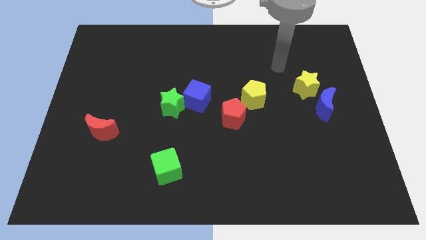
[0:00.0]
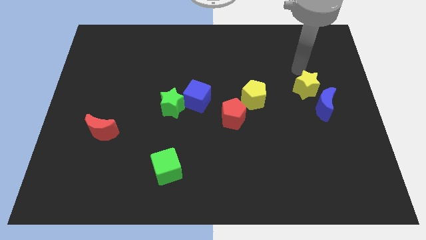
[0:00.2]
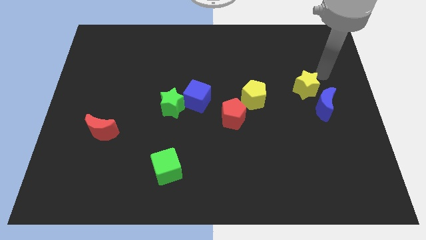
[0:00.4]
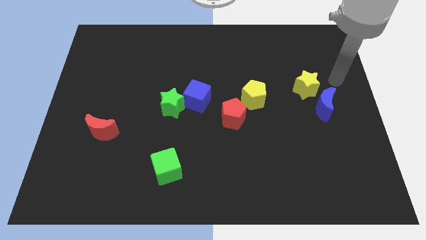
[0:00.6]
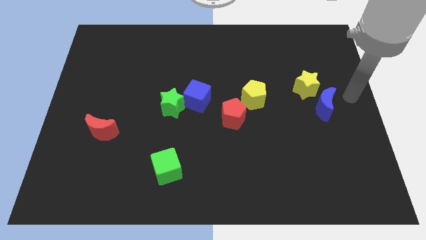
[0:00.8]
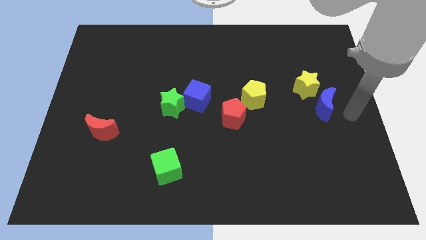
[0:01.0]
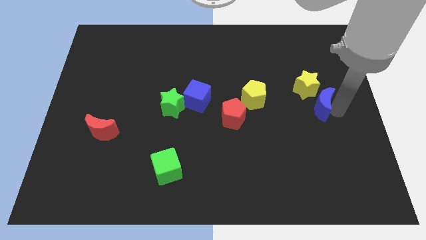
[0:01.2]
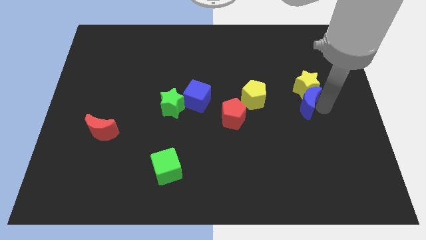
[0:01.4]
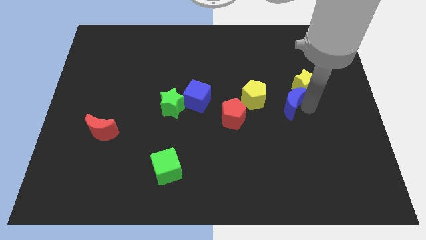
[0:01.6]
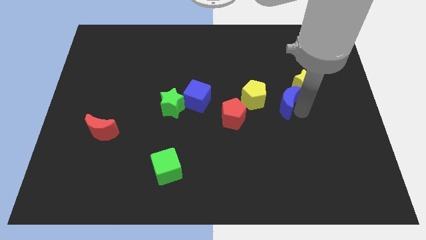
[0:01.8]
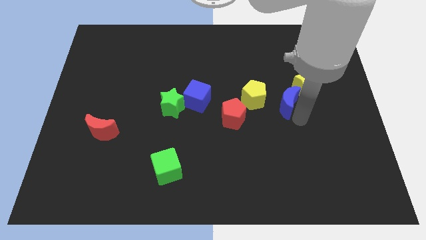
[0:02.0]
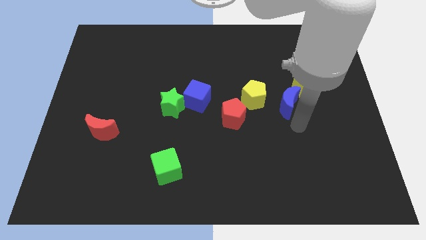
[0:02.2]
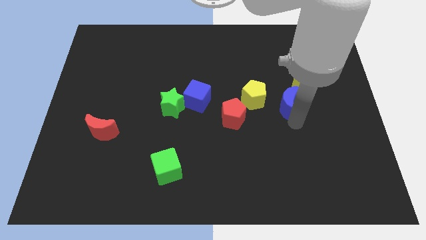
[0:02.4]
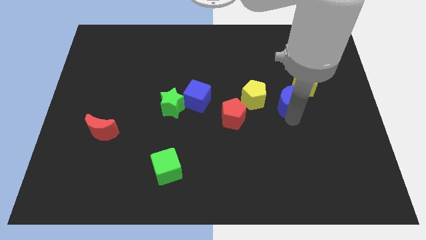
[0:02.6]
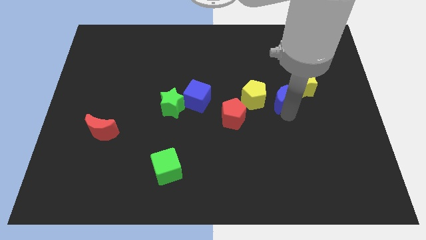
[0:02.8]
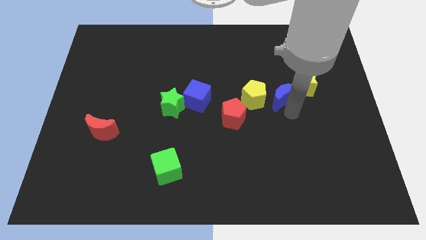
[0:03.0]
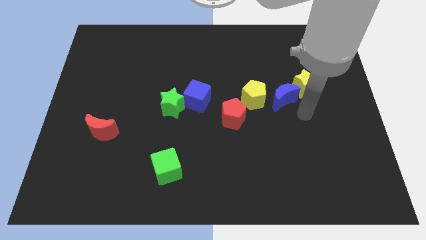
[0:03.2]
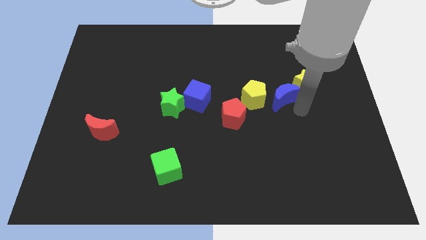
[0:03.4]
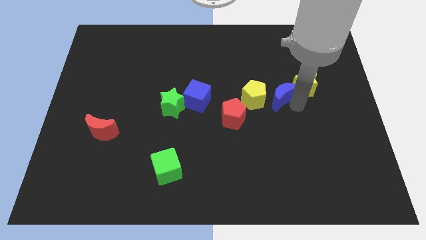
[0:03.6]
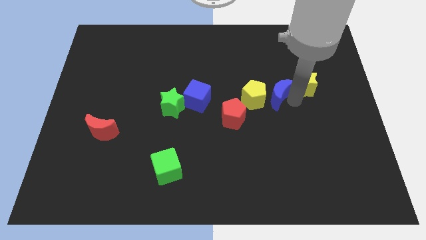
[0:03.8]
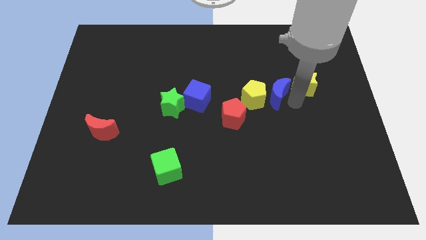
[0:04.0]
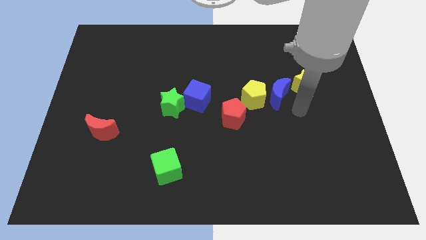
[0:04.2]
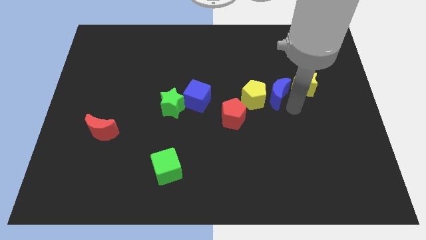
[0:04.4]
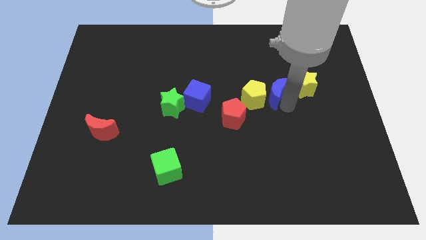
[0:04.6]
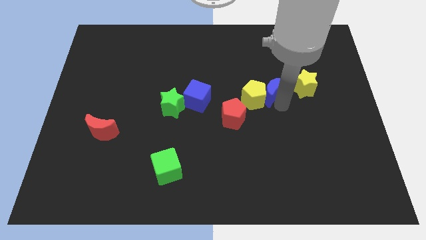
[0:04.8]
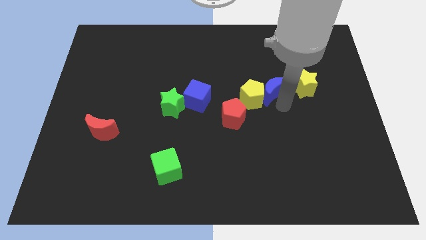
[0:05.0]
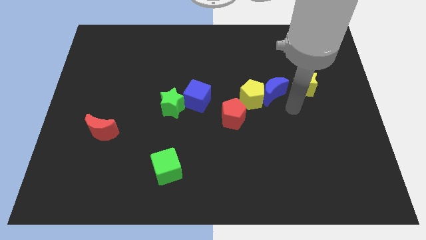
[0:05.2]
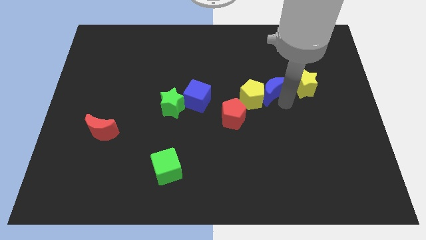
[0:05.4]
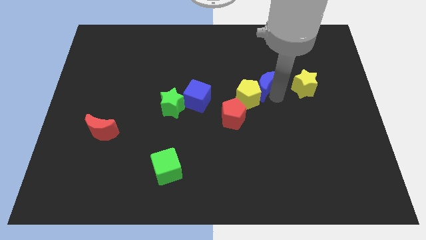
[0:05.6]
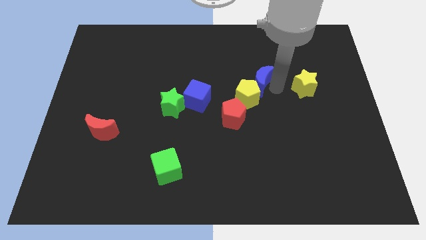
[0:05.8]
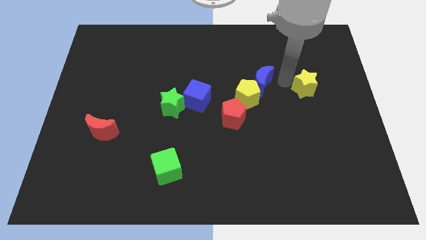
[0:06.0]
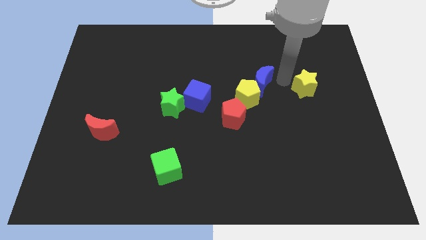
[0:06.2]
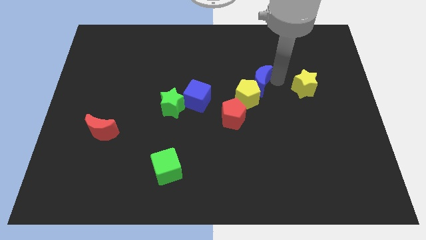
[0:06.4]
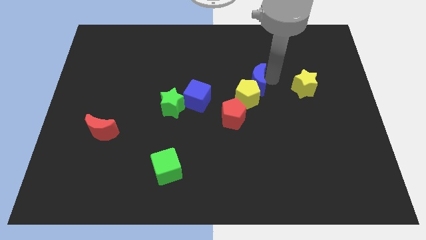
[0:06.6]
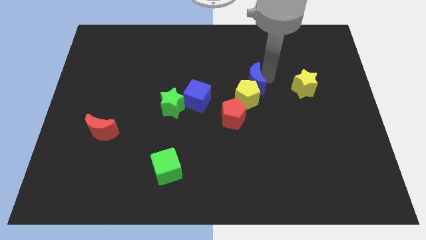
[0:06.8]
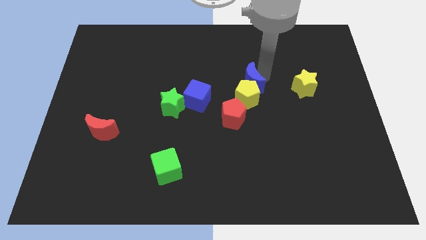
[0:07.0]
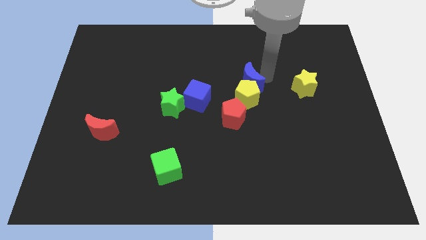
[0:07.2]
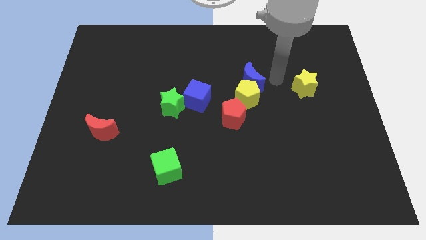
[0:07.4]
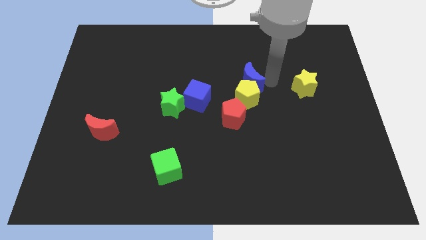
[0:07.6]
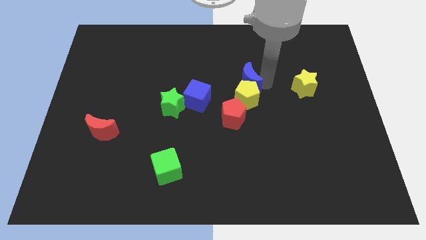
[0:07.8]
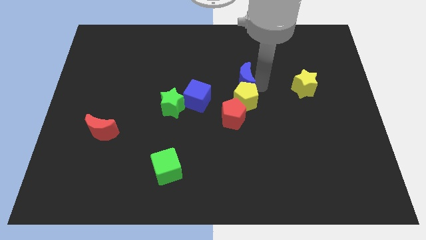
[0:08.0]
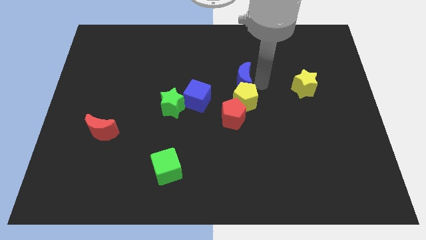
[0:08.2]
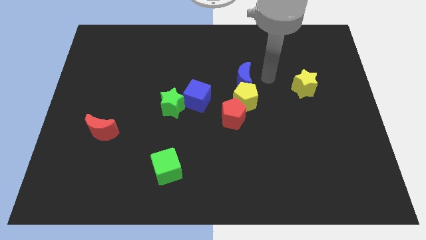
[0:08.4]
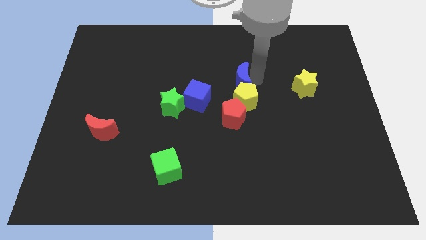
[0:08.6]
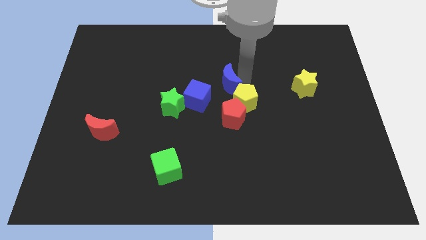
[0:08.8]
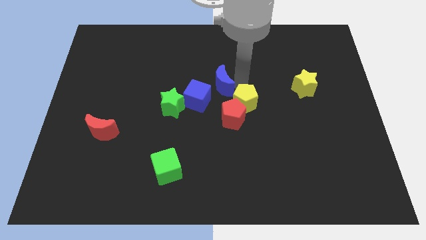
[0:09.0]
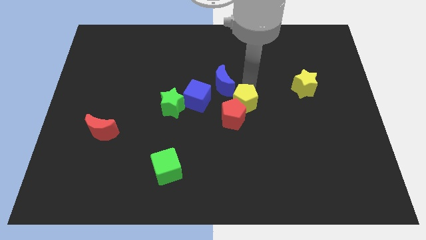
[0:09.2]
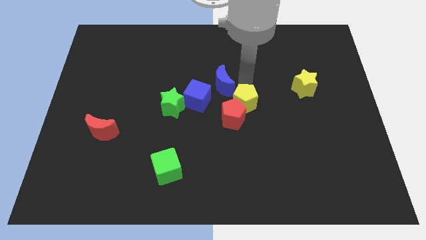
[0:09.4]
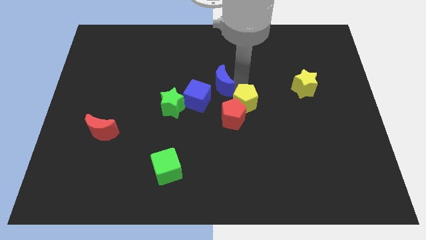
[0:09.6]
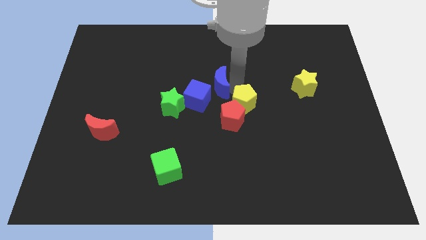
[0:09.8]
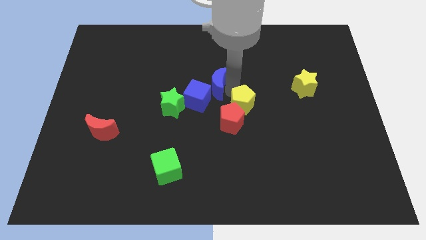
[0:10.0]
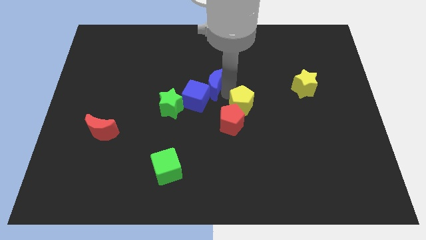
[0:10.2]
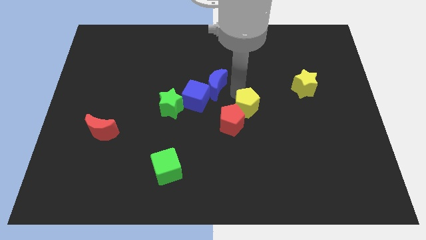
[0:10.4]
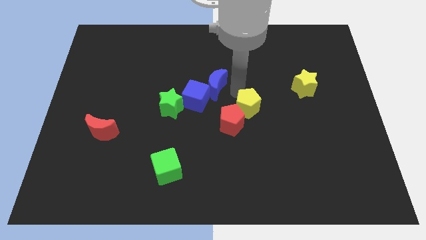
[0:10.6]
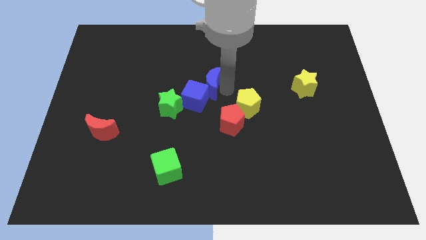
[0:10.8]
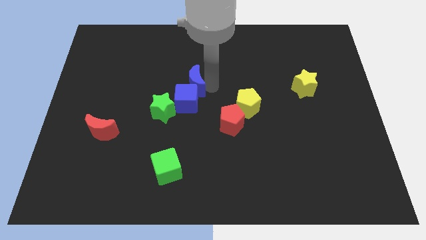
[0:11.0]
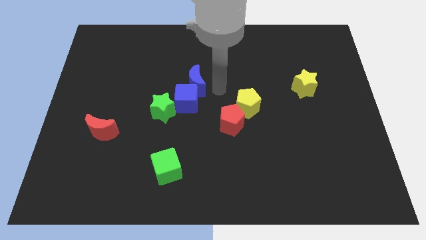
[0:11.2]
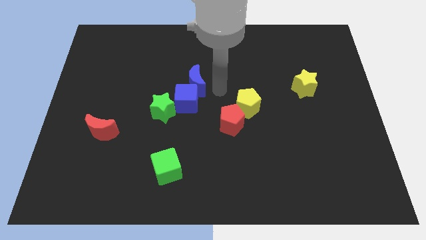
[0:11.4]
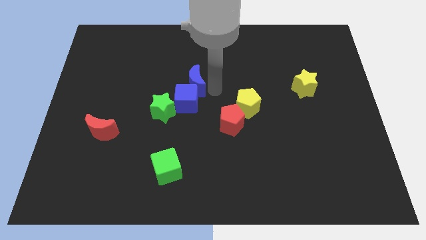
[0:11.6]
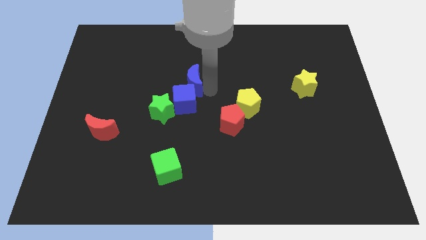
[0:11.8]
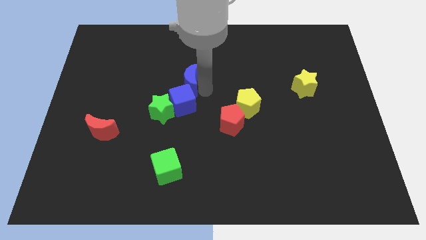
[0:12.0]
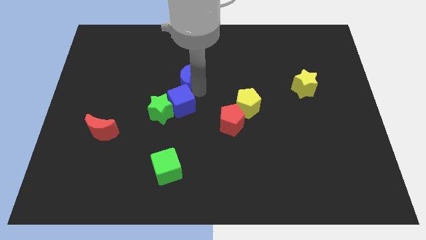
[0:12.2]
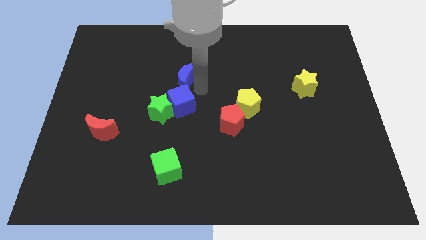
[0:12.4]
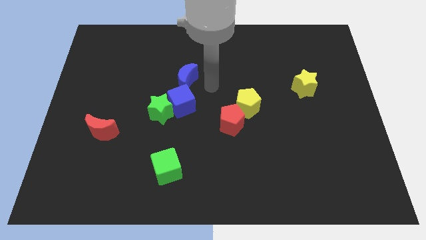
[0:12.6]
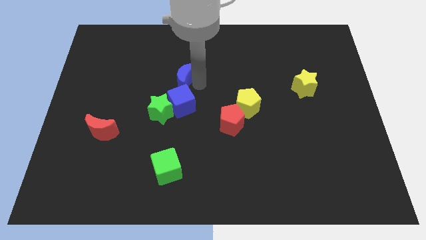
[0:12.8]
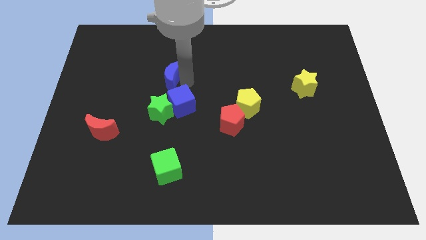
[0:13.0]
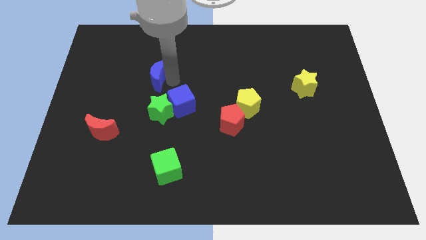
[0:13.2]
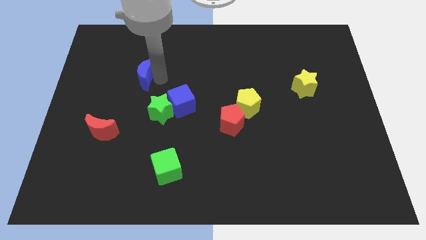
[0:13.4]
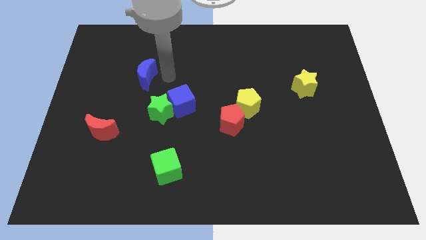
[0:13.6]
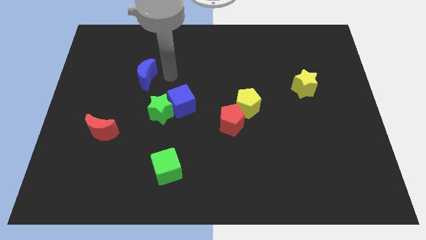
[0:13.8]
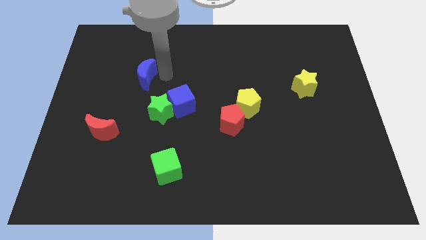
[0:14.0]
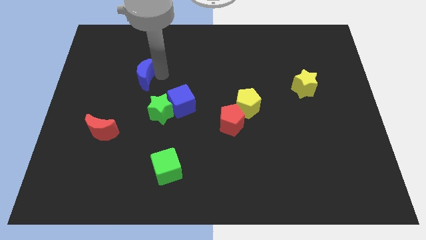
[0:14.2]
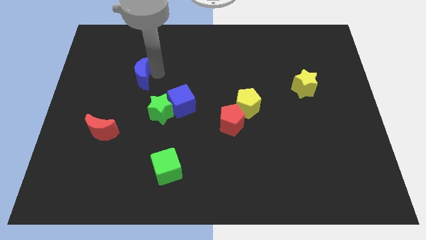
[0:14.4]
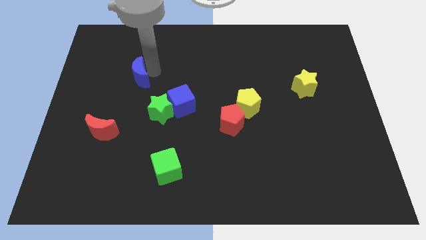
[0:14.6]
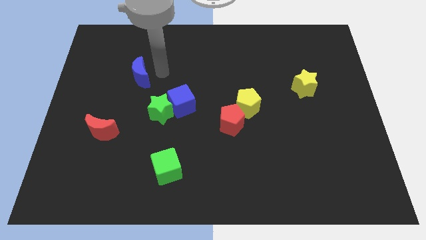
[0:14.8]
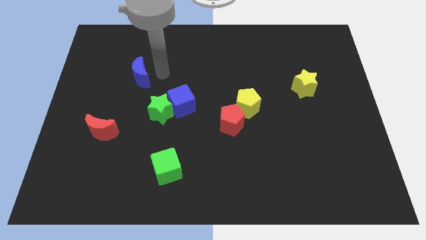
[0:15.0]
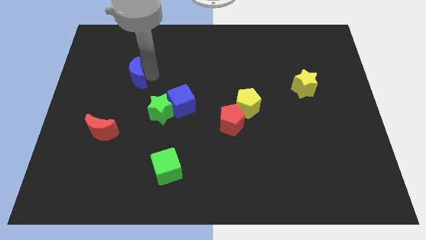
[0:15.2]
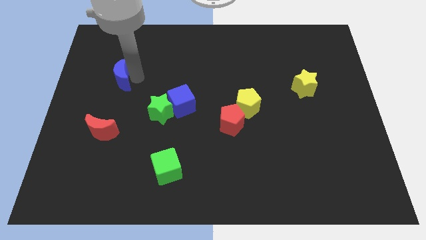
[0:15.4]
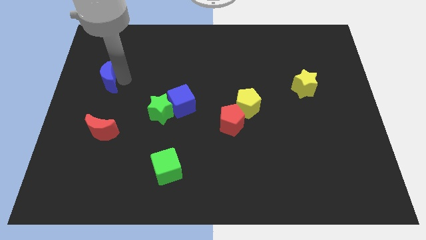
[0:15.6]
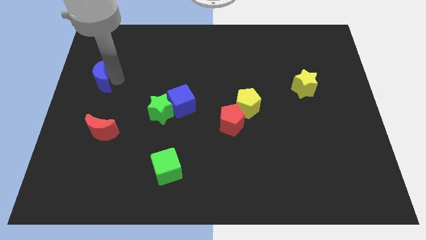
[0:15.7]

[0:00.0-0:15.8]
push the blue moon to the center left
